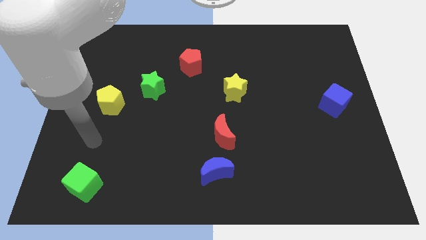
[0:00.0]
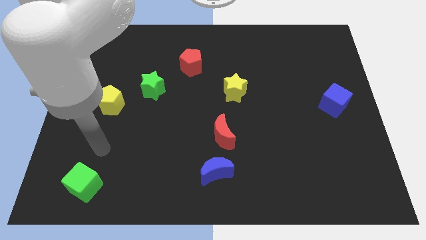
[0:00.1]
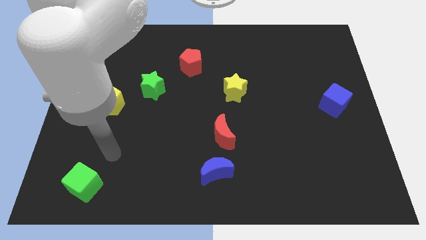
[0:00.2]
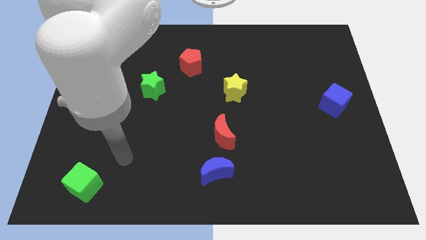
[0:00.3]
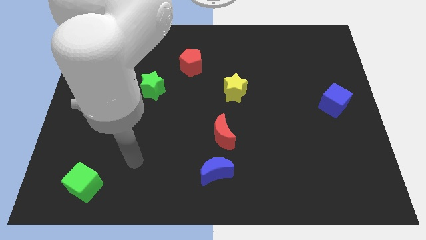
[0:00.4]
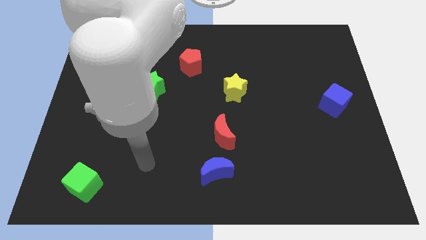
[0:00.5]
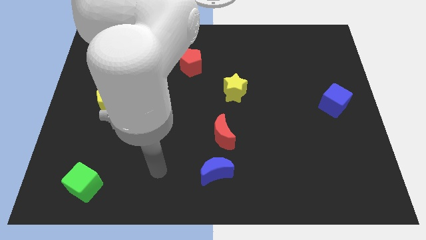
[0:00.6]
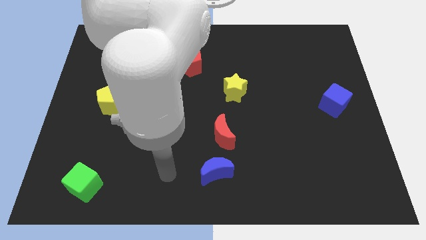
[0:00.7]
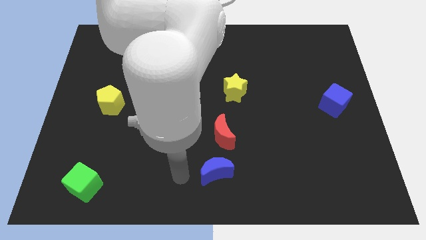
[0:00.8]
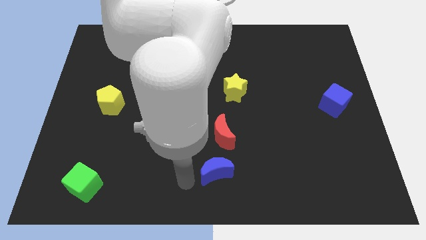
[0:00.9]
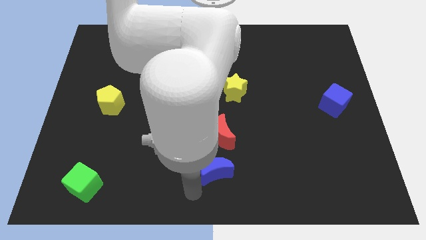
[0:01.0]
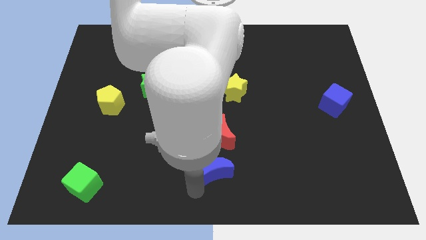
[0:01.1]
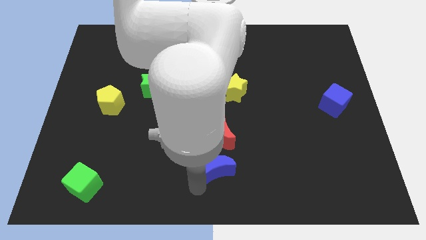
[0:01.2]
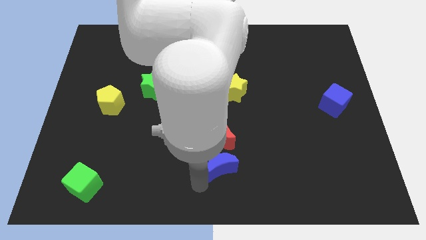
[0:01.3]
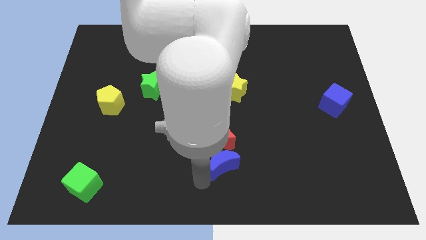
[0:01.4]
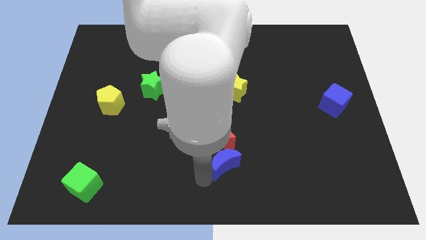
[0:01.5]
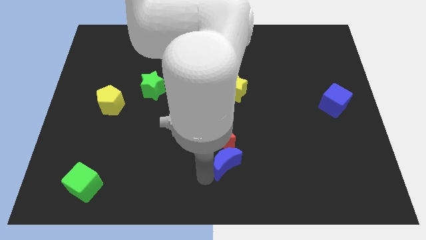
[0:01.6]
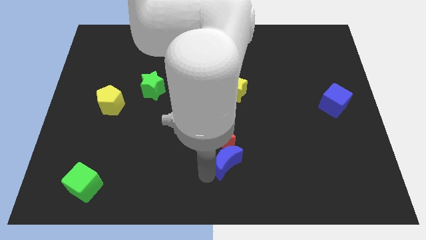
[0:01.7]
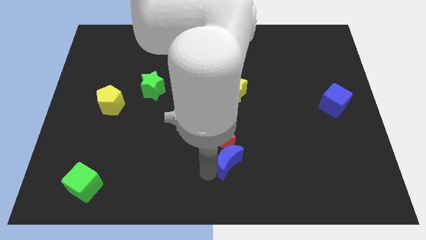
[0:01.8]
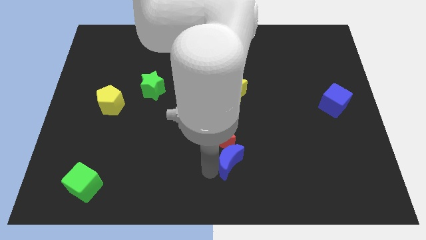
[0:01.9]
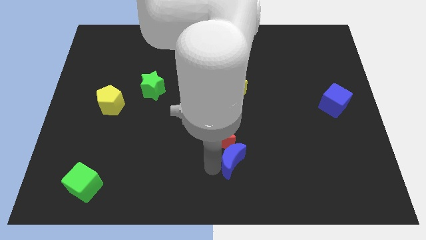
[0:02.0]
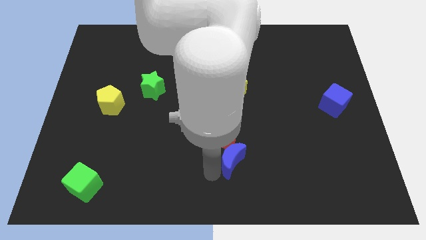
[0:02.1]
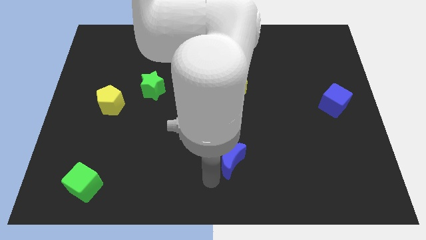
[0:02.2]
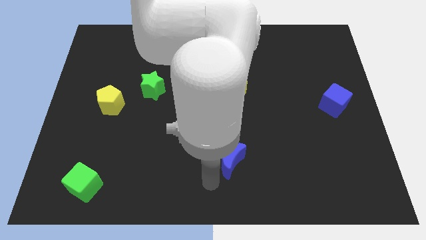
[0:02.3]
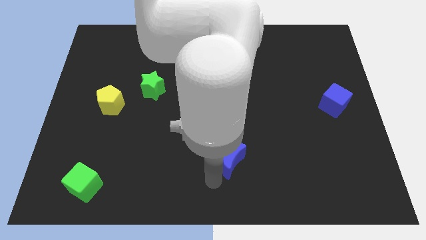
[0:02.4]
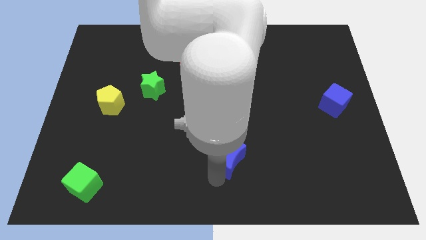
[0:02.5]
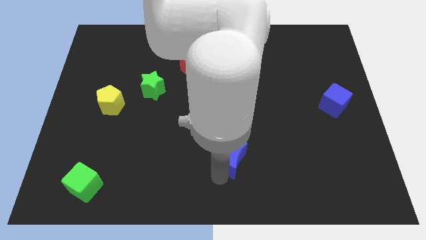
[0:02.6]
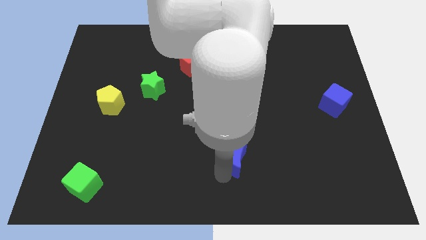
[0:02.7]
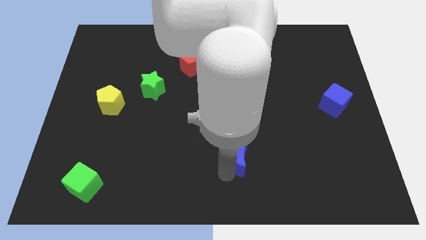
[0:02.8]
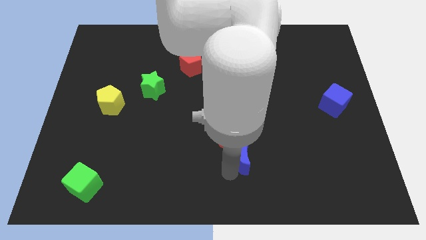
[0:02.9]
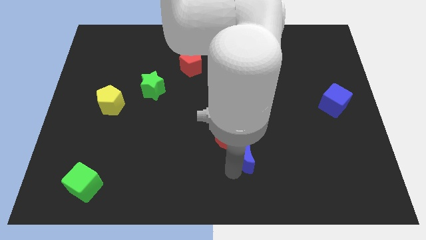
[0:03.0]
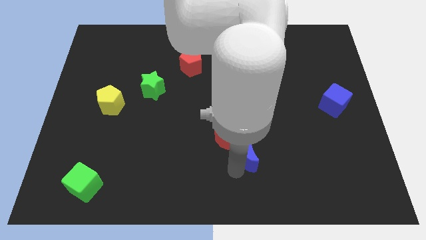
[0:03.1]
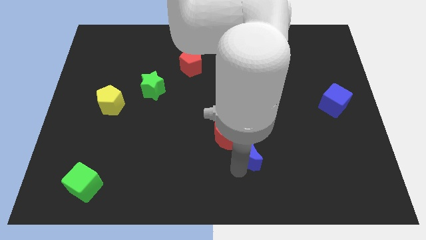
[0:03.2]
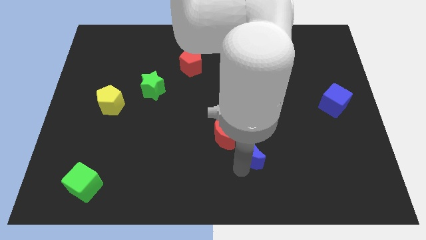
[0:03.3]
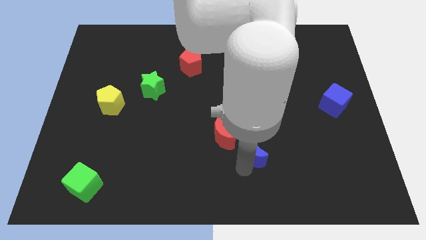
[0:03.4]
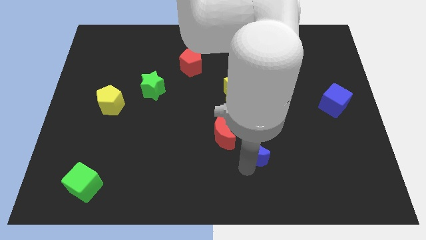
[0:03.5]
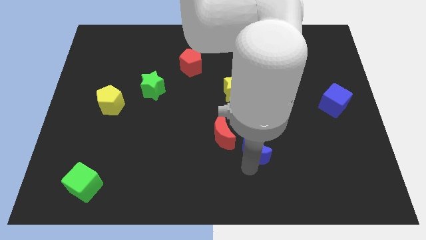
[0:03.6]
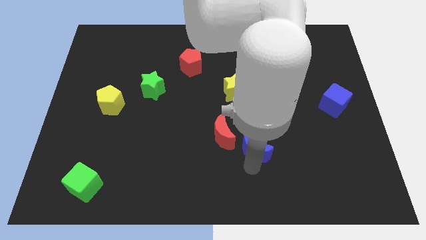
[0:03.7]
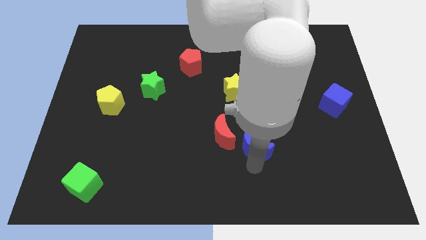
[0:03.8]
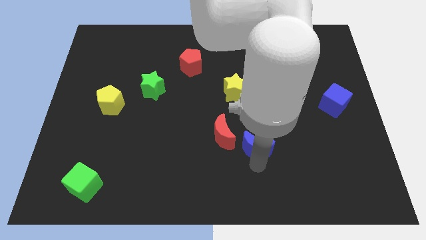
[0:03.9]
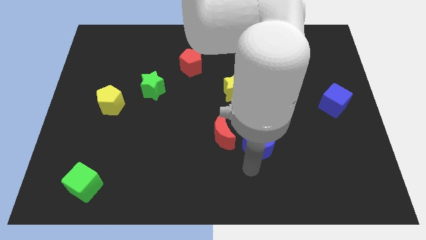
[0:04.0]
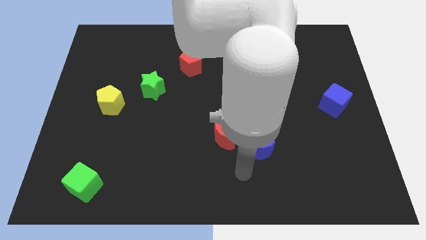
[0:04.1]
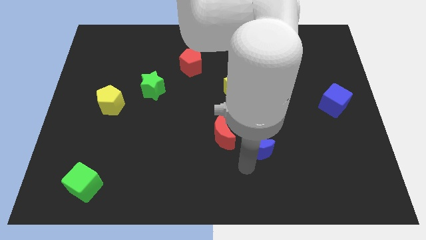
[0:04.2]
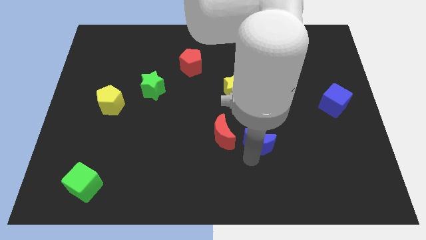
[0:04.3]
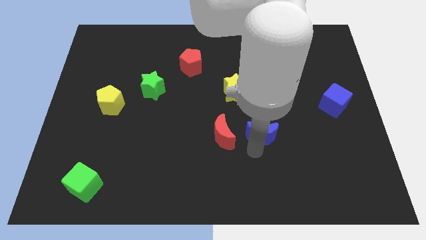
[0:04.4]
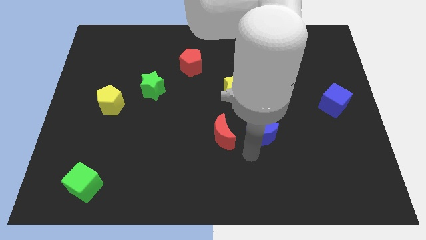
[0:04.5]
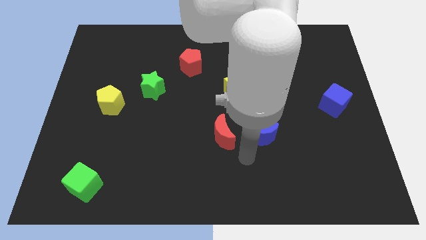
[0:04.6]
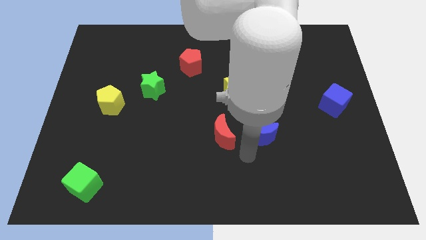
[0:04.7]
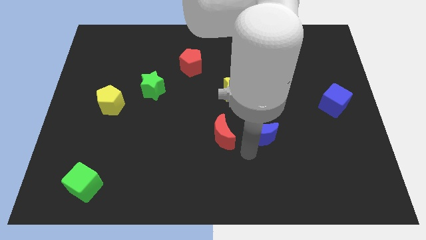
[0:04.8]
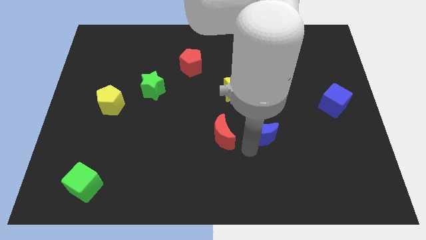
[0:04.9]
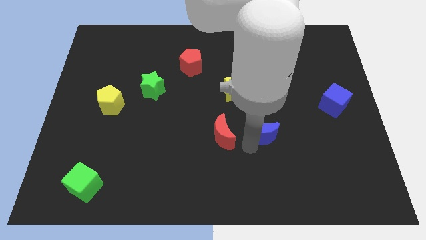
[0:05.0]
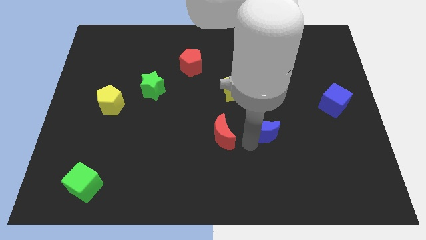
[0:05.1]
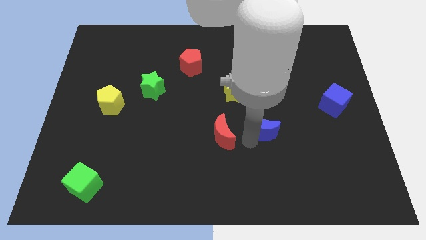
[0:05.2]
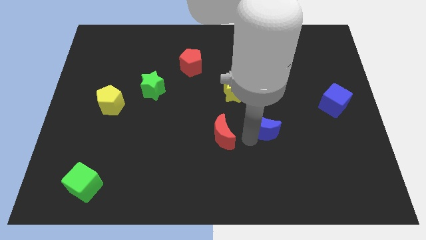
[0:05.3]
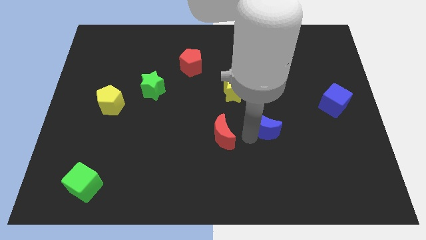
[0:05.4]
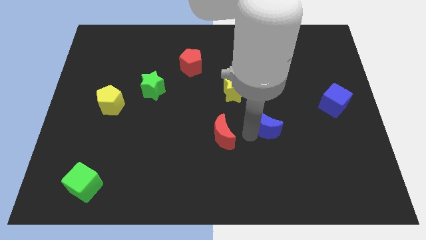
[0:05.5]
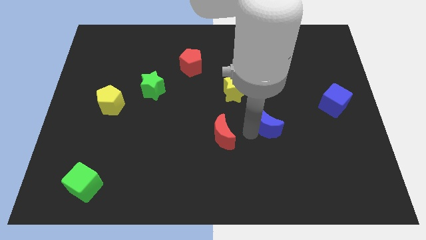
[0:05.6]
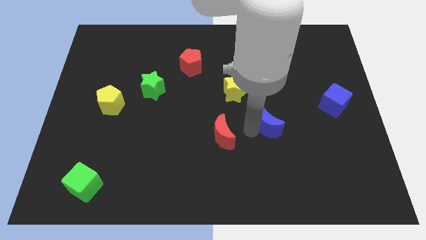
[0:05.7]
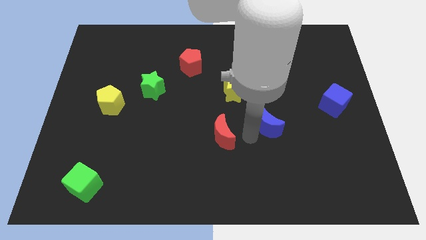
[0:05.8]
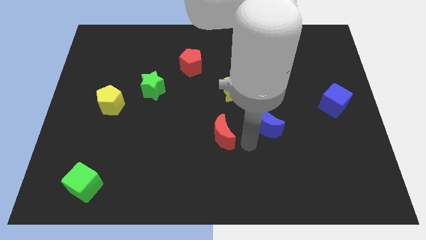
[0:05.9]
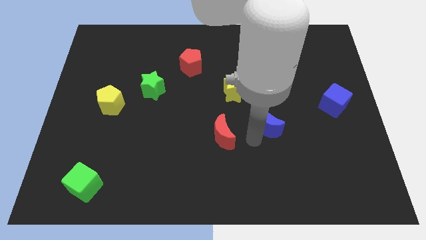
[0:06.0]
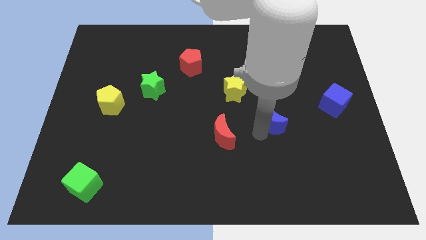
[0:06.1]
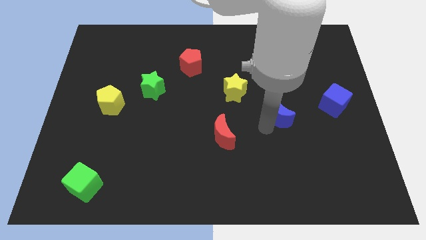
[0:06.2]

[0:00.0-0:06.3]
push the blue moon to the left of the blue cube
